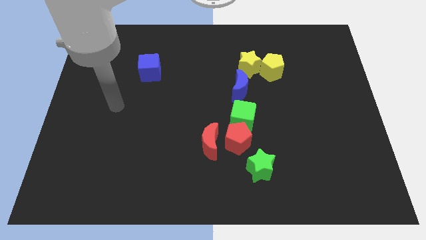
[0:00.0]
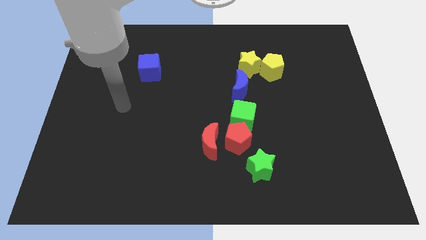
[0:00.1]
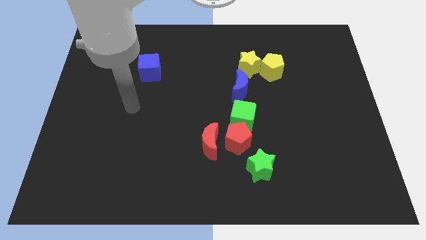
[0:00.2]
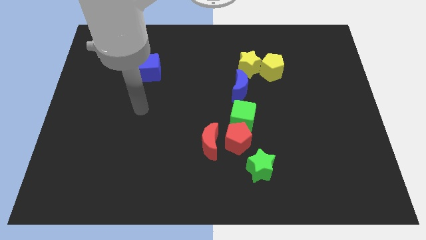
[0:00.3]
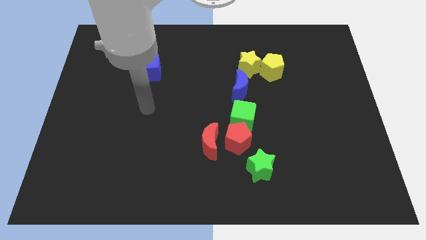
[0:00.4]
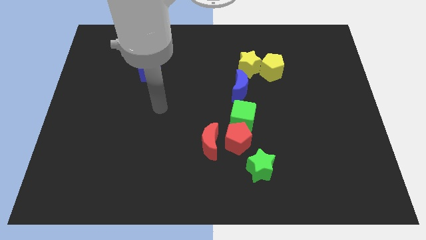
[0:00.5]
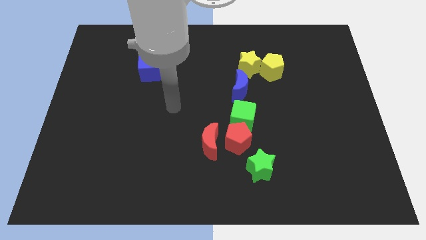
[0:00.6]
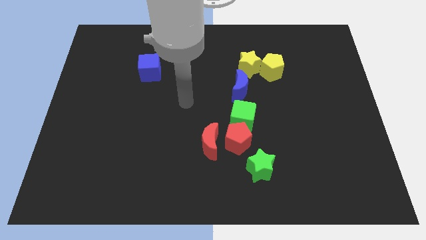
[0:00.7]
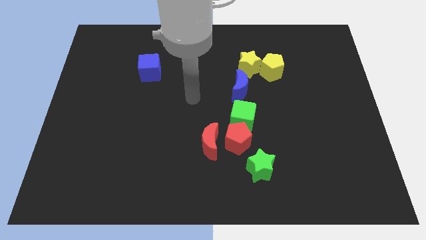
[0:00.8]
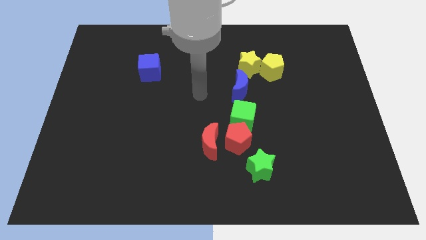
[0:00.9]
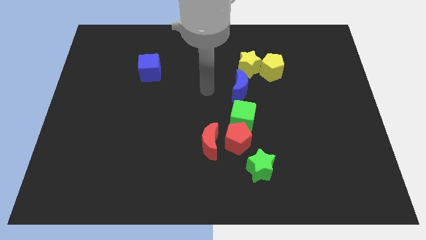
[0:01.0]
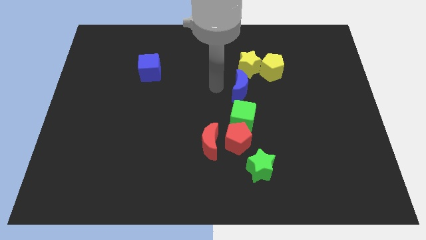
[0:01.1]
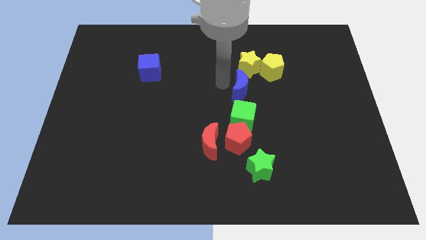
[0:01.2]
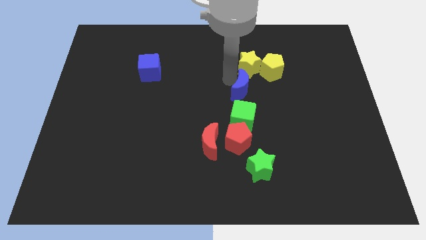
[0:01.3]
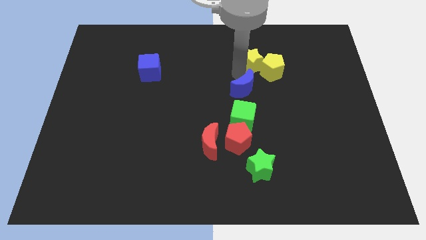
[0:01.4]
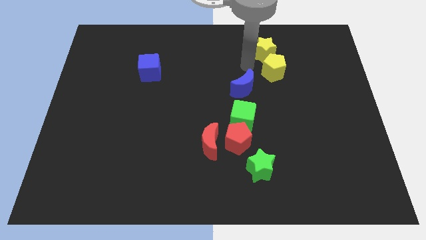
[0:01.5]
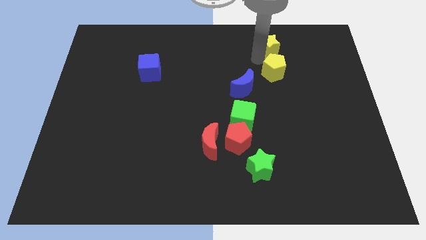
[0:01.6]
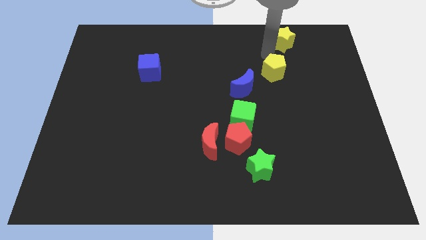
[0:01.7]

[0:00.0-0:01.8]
pull the yellow pentagon apart from the yellow star

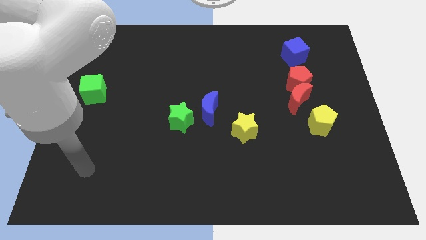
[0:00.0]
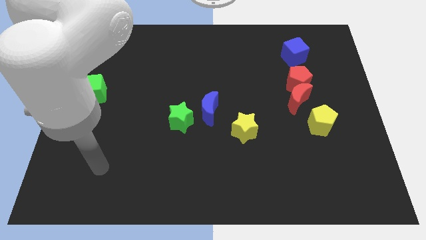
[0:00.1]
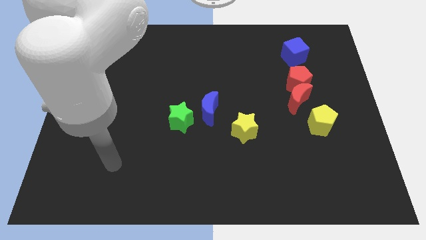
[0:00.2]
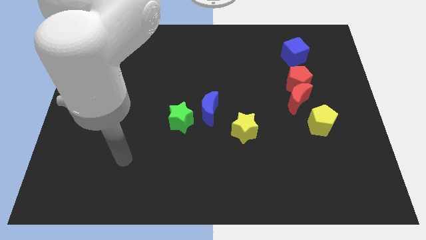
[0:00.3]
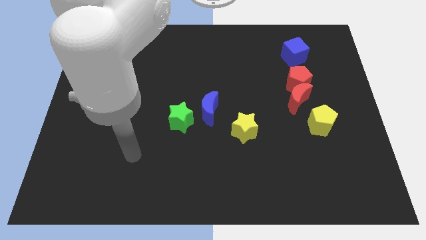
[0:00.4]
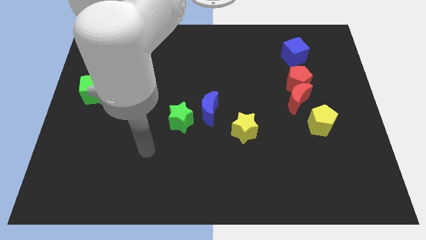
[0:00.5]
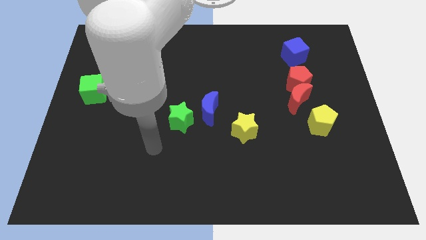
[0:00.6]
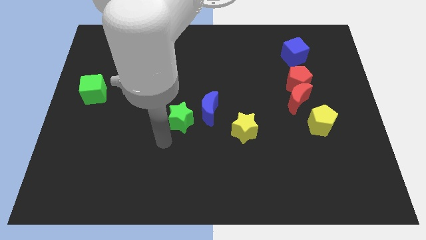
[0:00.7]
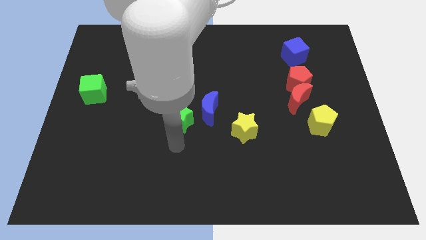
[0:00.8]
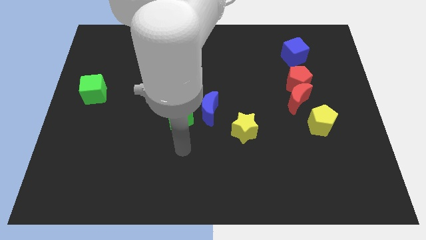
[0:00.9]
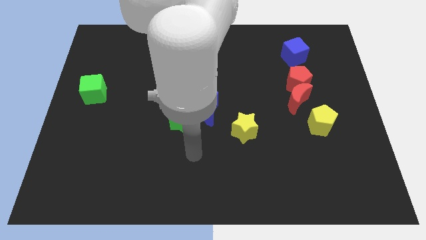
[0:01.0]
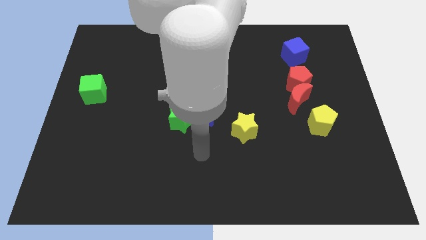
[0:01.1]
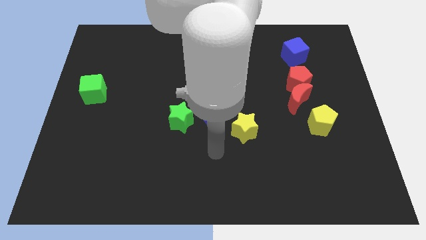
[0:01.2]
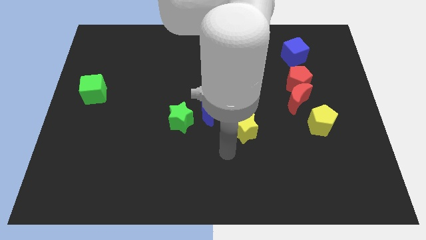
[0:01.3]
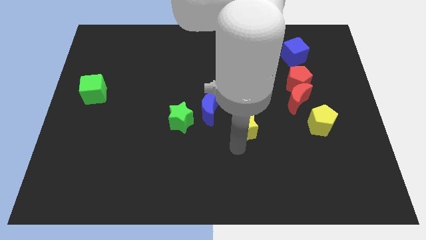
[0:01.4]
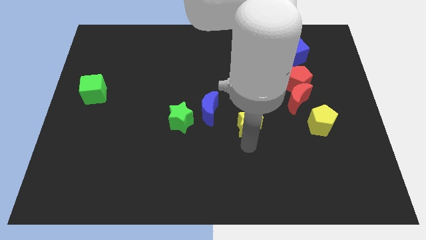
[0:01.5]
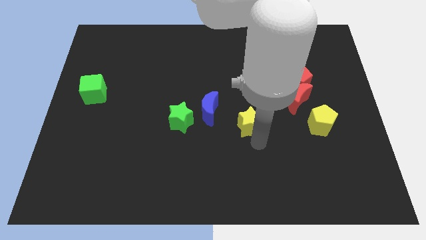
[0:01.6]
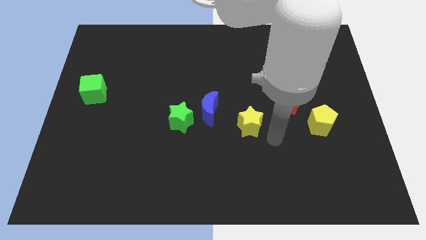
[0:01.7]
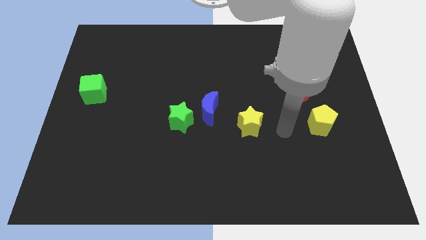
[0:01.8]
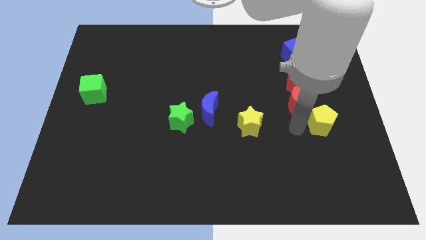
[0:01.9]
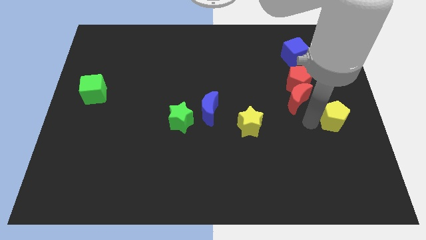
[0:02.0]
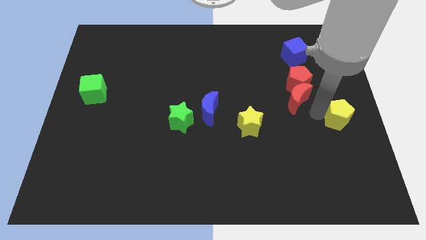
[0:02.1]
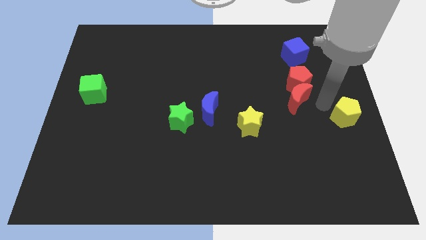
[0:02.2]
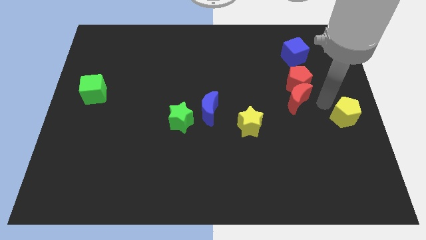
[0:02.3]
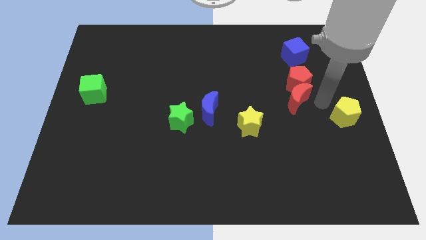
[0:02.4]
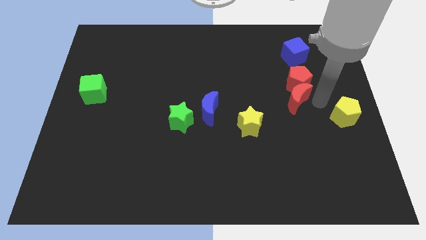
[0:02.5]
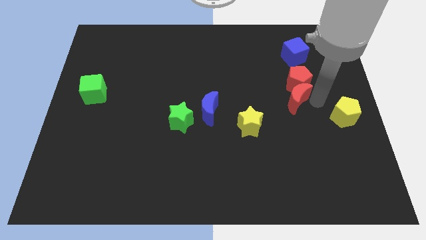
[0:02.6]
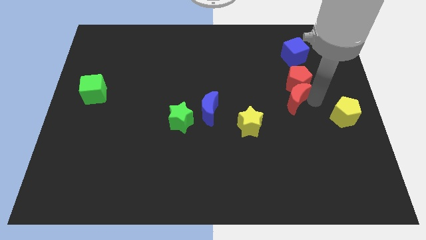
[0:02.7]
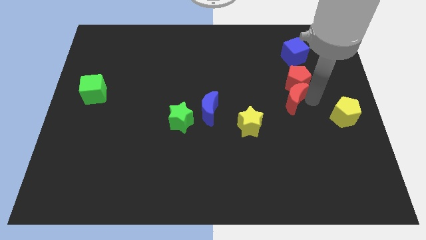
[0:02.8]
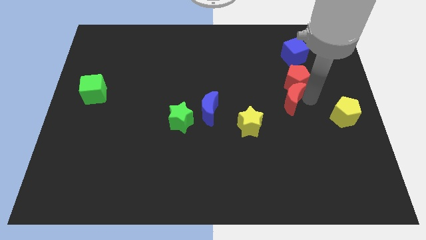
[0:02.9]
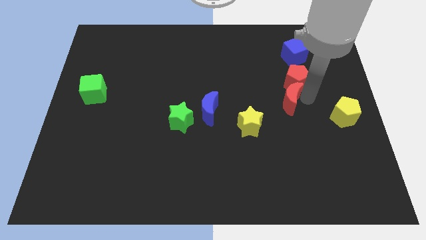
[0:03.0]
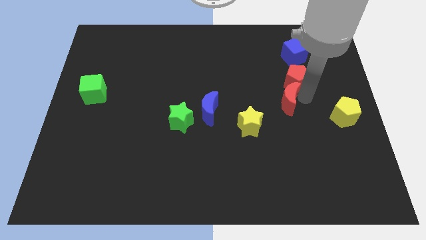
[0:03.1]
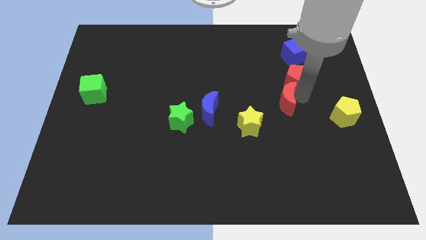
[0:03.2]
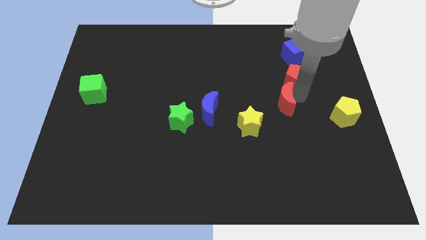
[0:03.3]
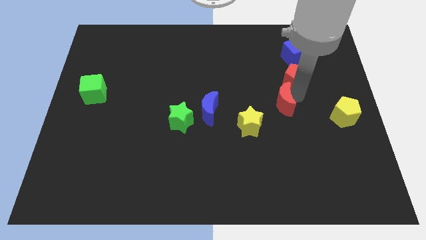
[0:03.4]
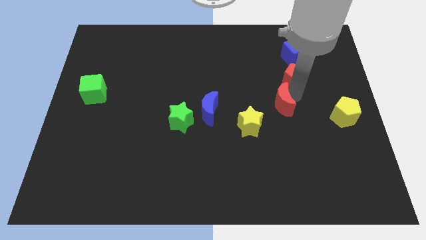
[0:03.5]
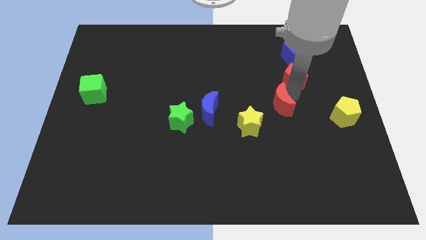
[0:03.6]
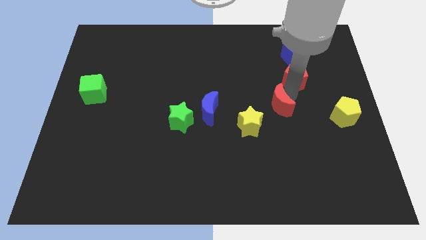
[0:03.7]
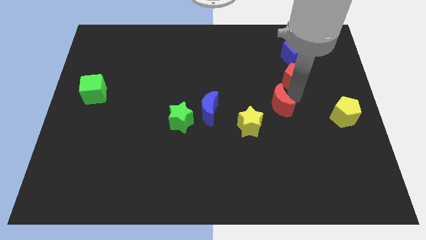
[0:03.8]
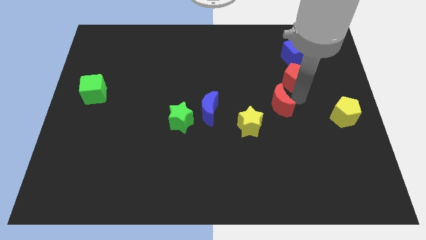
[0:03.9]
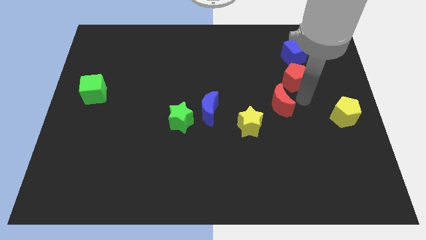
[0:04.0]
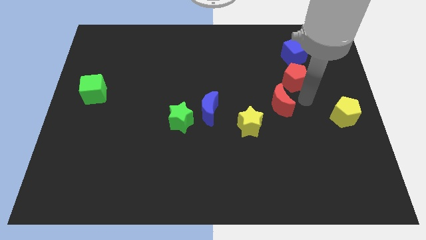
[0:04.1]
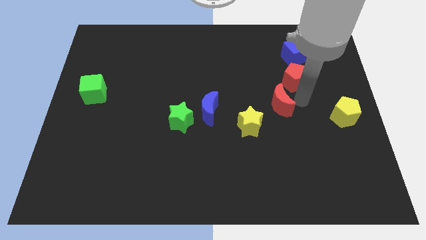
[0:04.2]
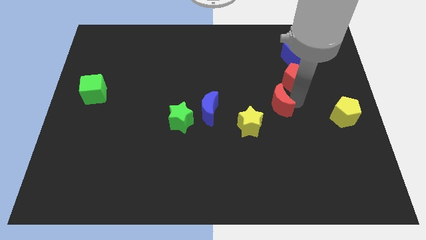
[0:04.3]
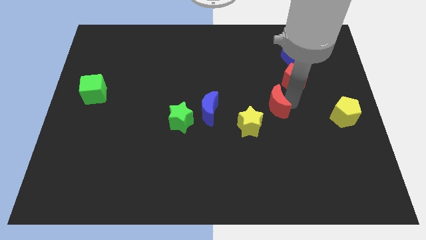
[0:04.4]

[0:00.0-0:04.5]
separate the red moon from the red pentagon and yellow pentagon

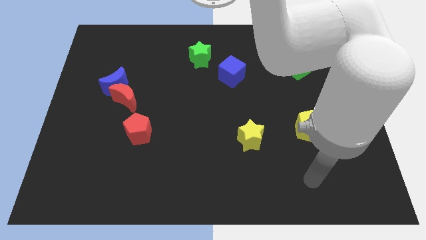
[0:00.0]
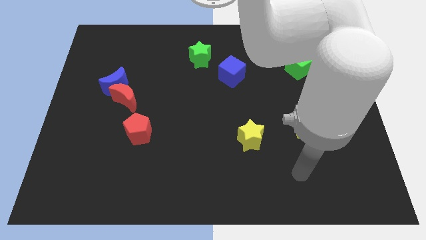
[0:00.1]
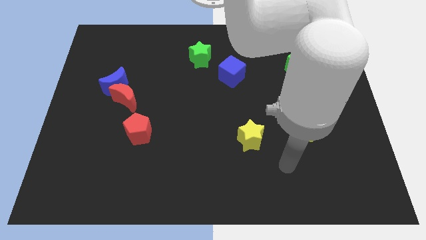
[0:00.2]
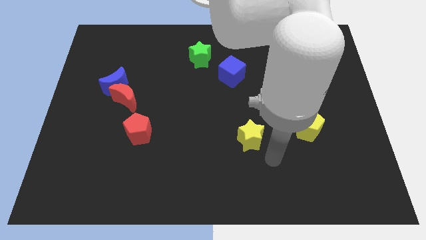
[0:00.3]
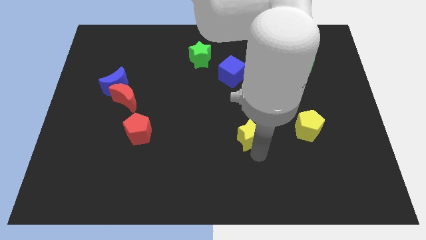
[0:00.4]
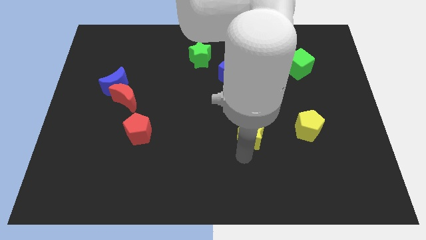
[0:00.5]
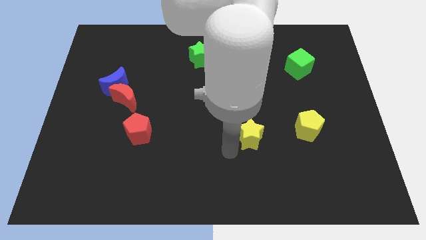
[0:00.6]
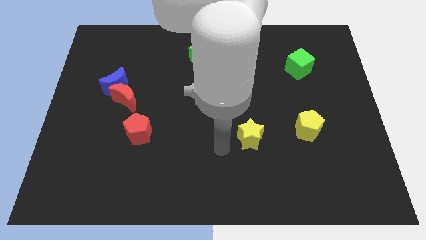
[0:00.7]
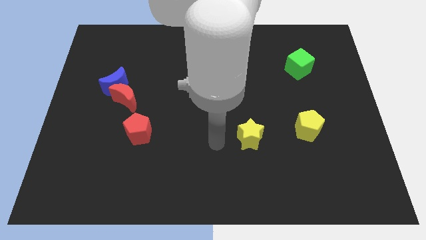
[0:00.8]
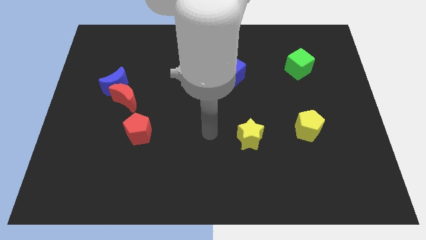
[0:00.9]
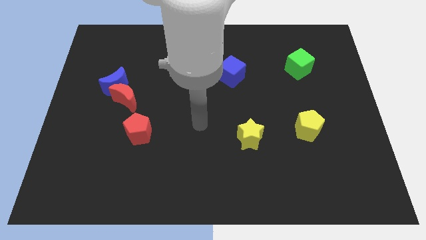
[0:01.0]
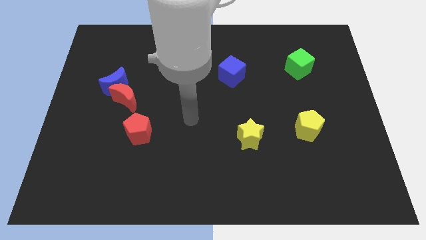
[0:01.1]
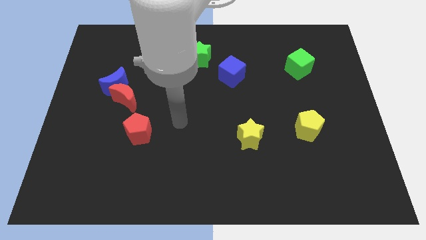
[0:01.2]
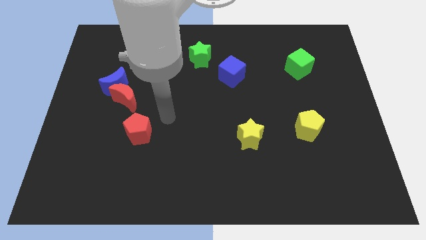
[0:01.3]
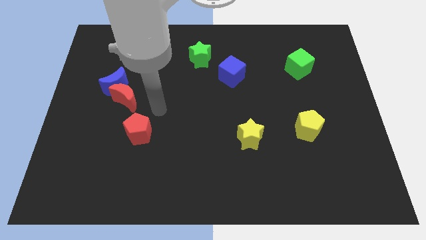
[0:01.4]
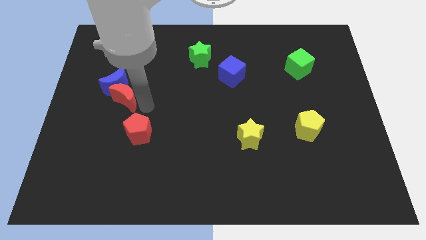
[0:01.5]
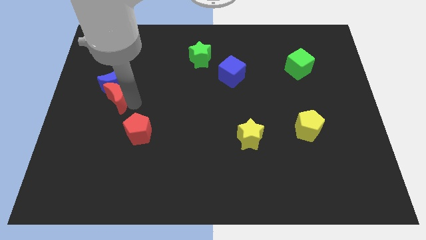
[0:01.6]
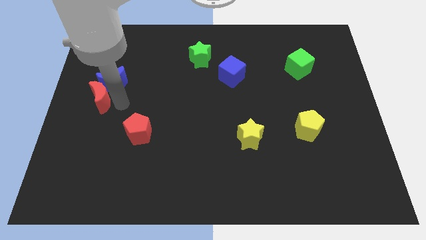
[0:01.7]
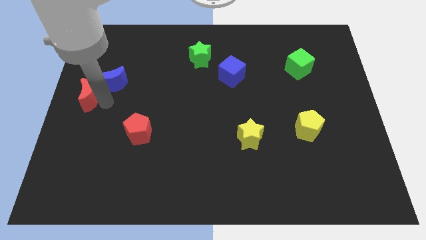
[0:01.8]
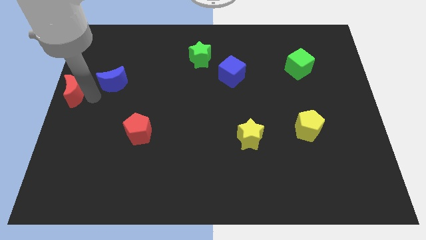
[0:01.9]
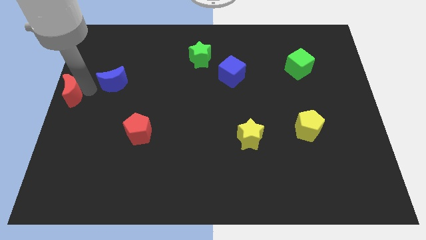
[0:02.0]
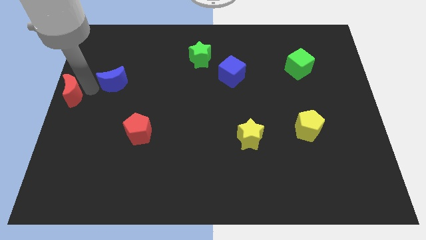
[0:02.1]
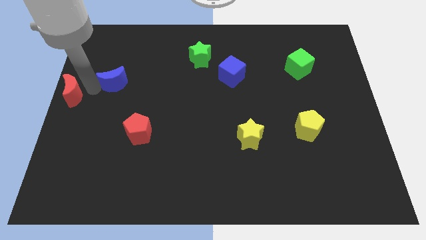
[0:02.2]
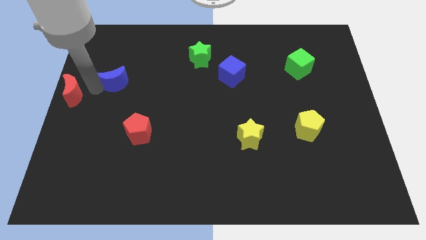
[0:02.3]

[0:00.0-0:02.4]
separate the blue moon from the red moon

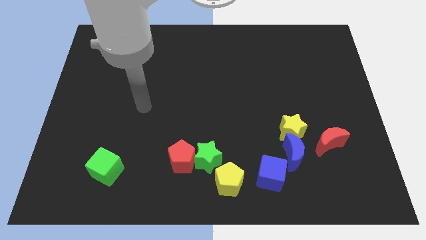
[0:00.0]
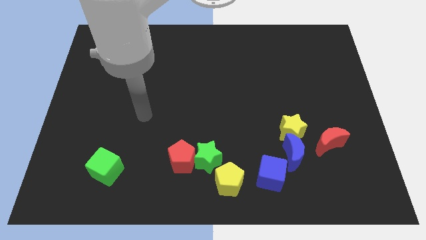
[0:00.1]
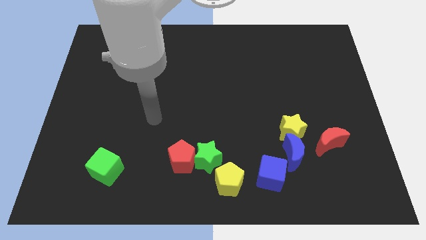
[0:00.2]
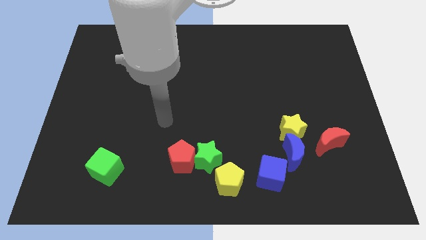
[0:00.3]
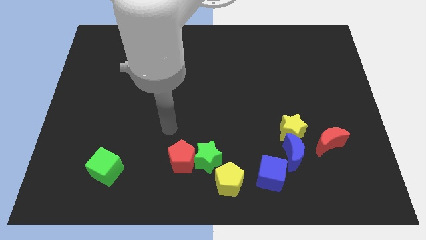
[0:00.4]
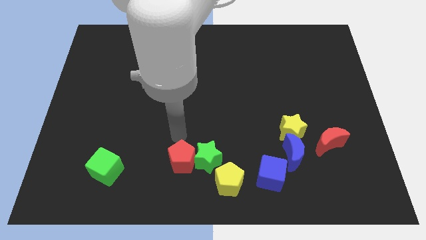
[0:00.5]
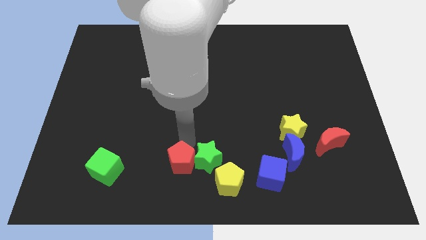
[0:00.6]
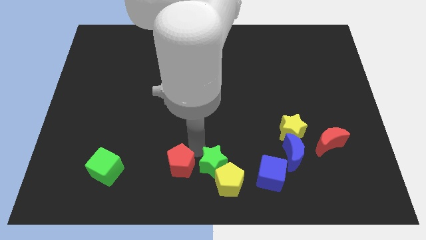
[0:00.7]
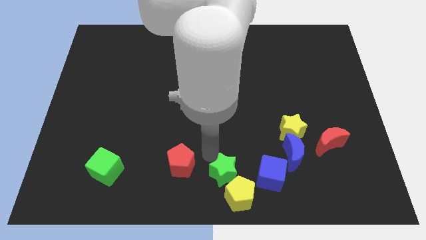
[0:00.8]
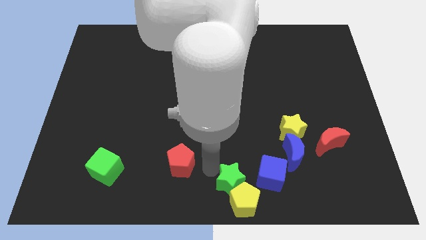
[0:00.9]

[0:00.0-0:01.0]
pull the red pentagon apart from the green star
